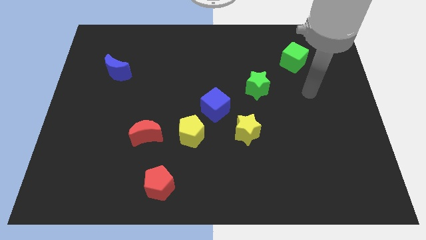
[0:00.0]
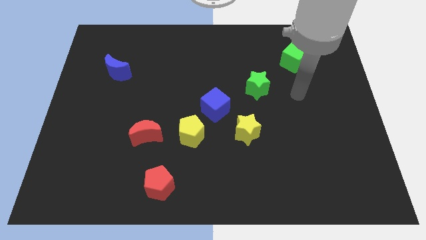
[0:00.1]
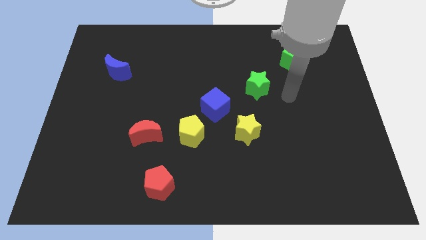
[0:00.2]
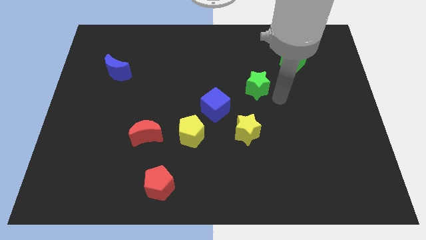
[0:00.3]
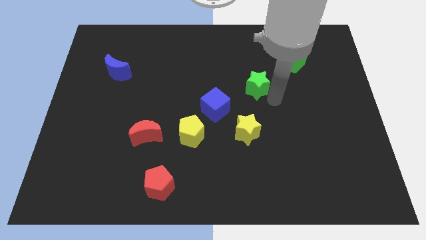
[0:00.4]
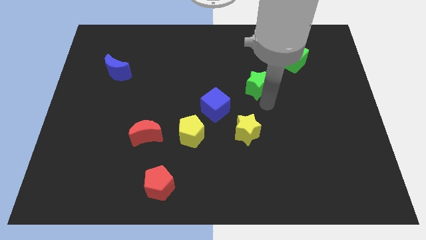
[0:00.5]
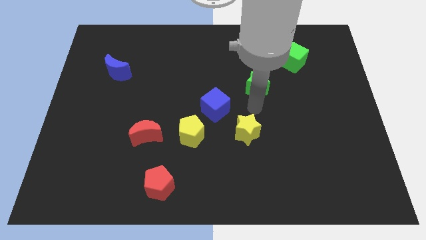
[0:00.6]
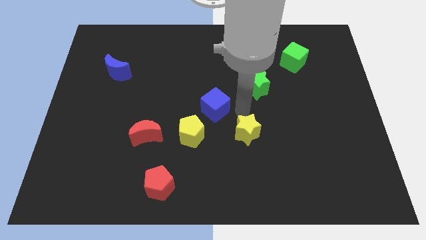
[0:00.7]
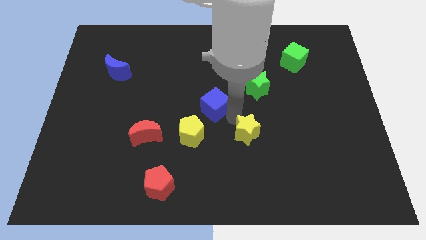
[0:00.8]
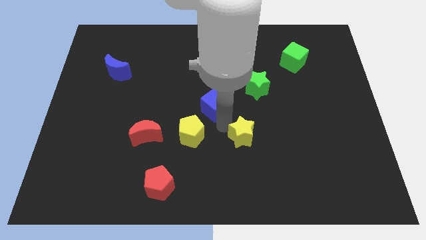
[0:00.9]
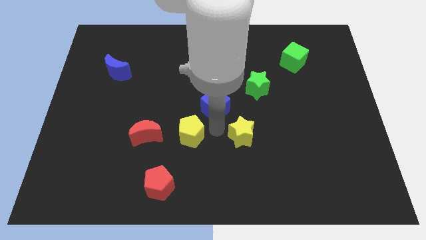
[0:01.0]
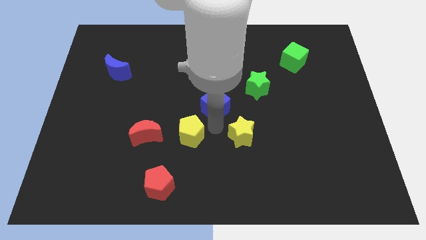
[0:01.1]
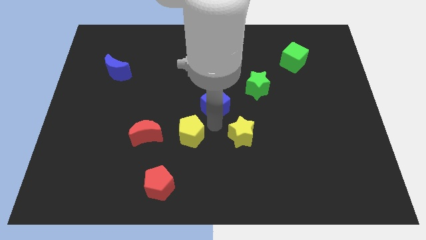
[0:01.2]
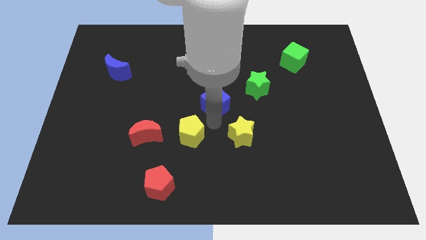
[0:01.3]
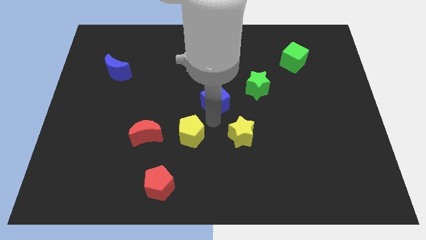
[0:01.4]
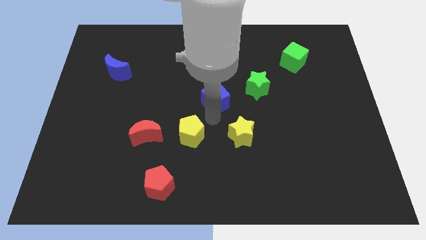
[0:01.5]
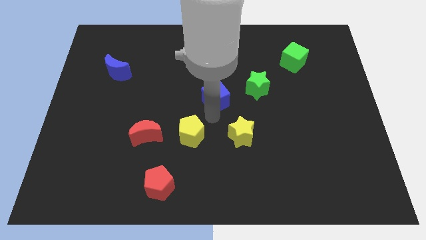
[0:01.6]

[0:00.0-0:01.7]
pull the blue cube apart from the yellow pentagon and yellow star

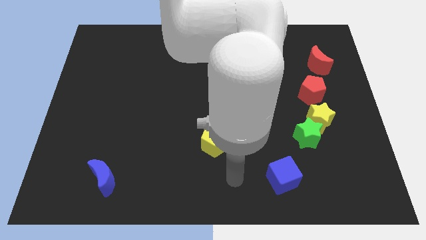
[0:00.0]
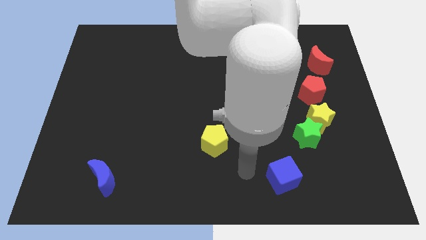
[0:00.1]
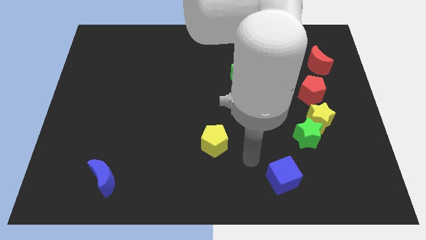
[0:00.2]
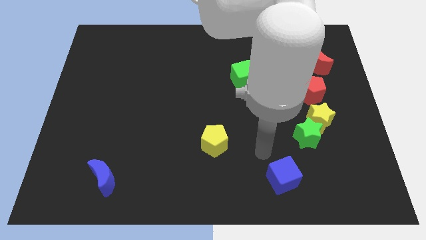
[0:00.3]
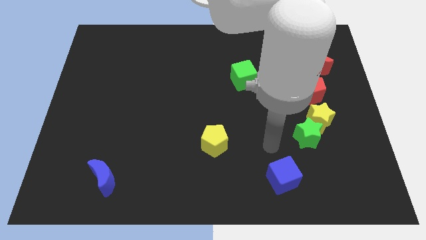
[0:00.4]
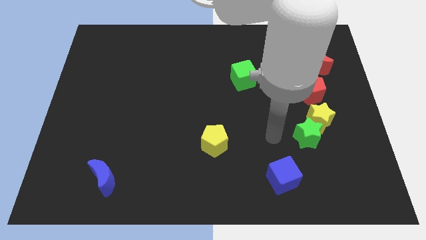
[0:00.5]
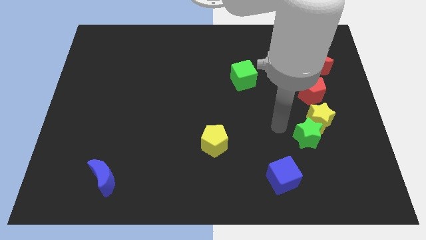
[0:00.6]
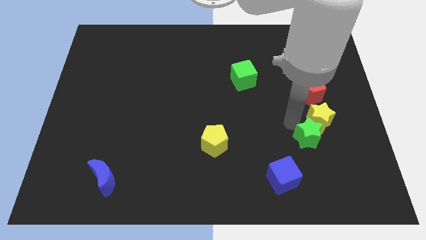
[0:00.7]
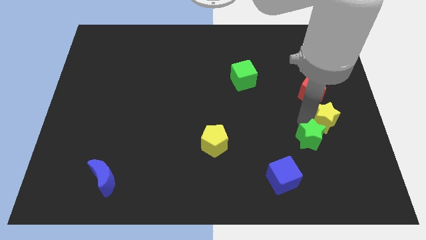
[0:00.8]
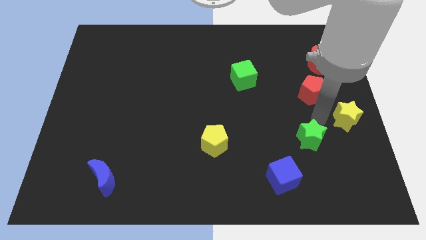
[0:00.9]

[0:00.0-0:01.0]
move the green star away from the yellow star

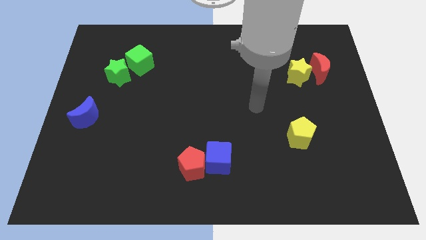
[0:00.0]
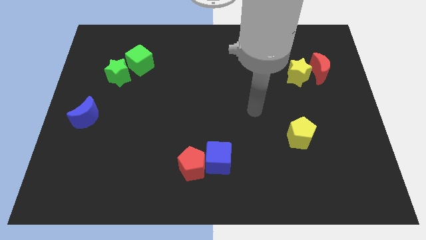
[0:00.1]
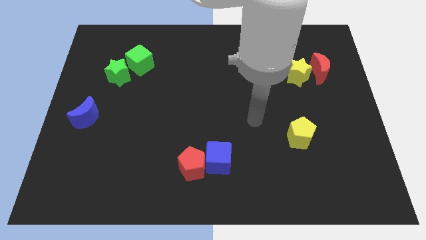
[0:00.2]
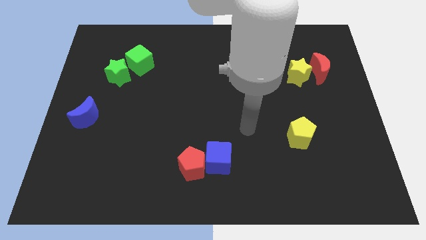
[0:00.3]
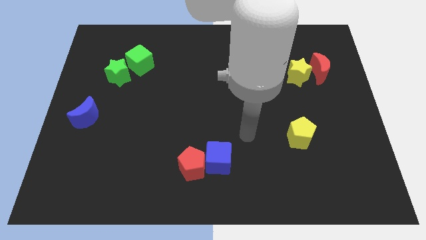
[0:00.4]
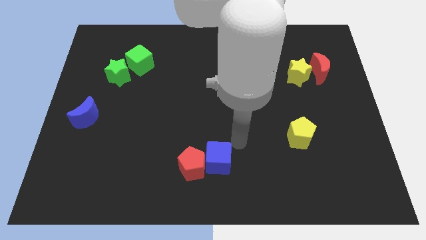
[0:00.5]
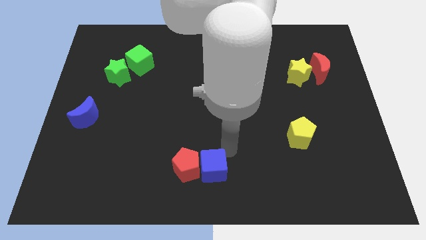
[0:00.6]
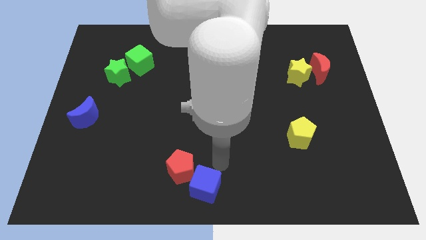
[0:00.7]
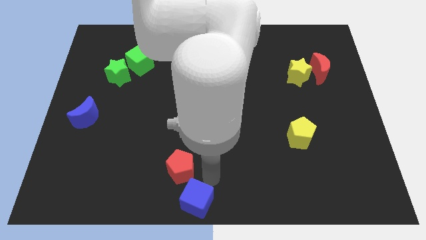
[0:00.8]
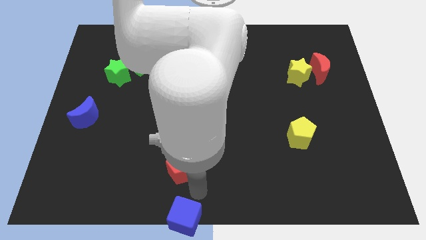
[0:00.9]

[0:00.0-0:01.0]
separate the red pentagon from the blue cube

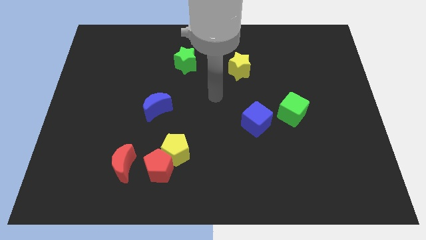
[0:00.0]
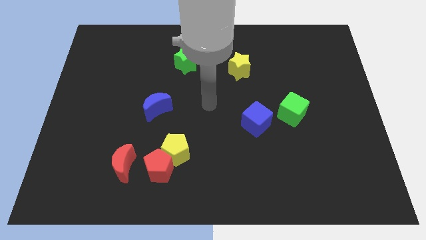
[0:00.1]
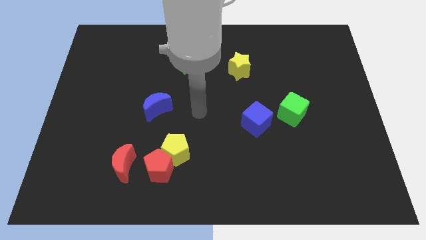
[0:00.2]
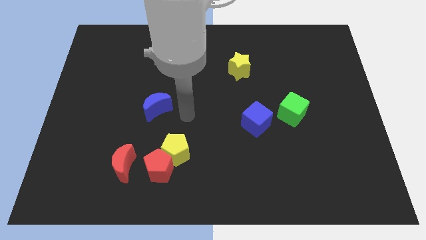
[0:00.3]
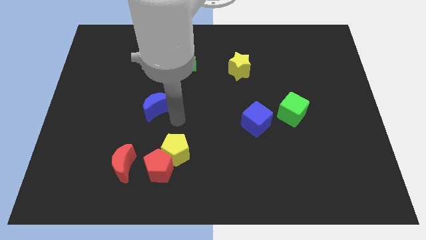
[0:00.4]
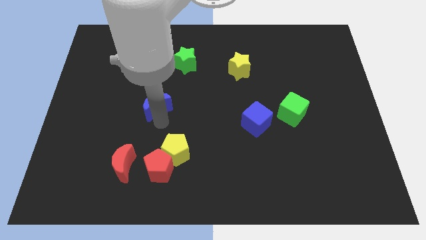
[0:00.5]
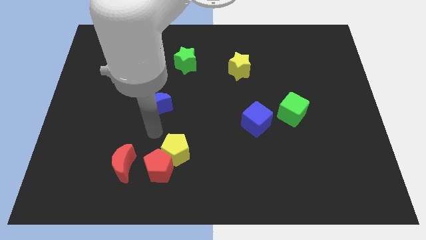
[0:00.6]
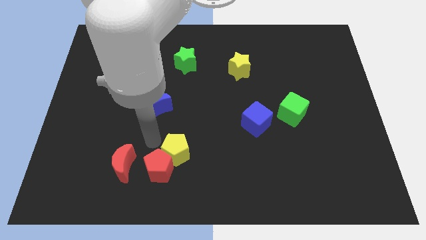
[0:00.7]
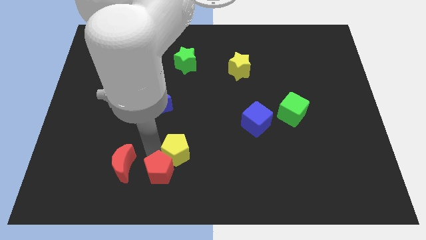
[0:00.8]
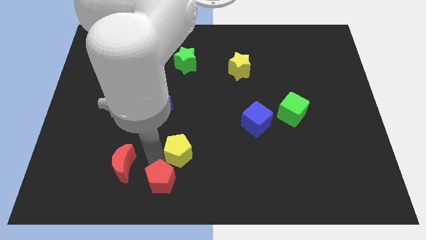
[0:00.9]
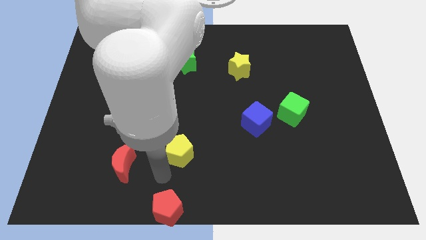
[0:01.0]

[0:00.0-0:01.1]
move the yellow pentagon away from the red pentagon

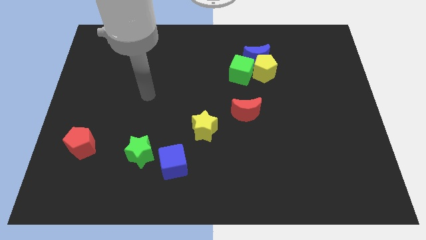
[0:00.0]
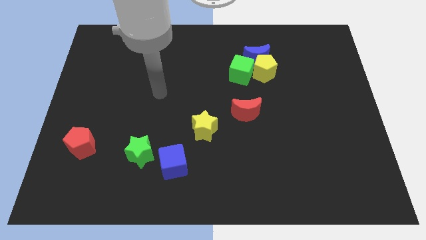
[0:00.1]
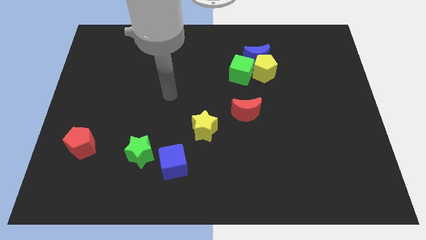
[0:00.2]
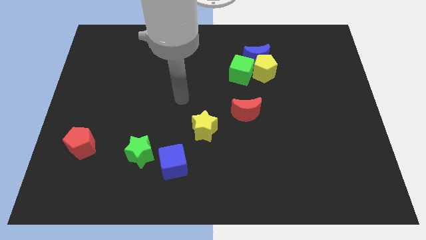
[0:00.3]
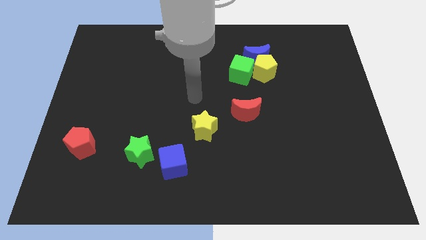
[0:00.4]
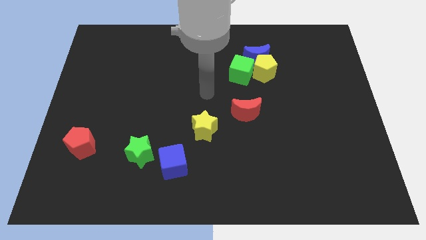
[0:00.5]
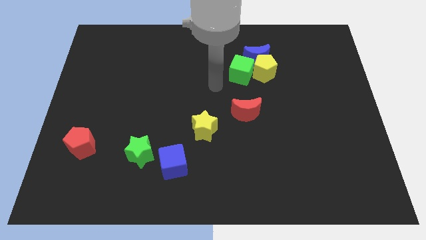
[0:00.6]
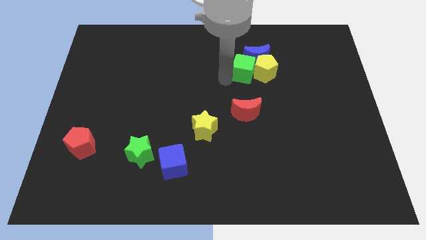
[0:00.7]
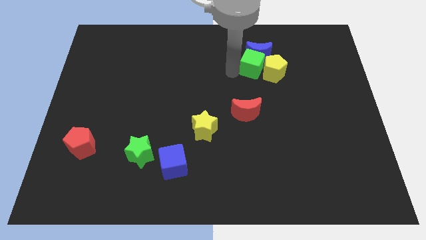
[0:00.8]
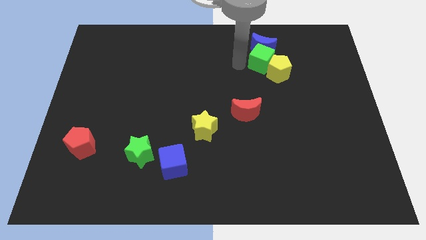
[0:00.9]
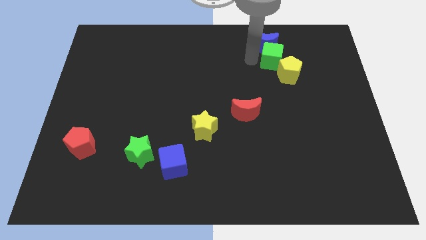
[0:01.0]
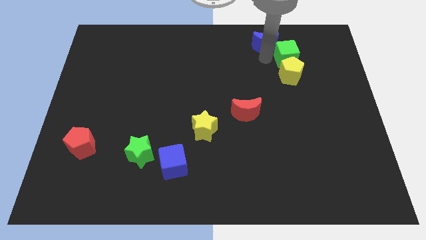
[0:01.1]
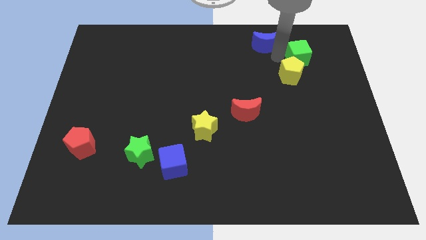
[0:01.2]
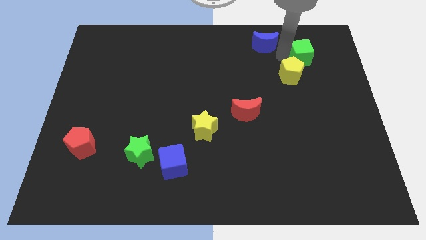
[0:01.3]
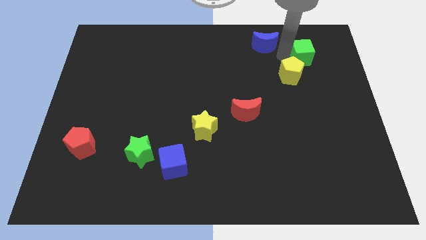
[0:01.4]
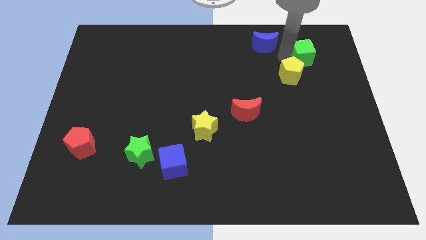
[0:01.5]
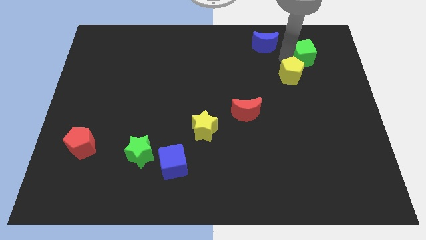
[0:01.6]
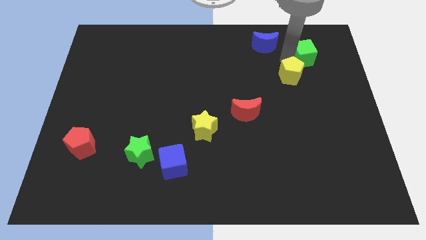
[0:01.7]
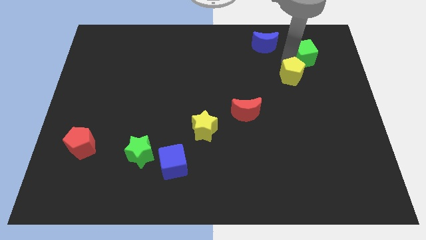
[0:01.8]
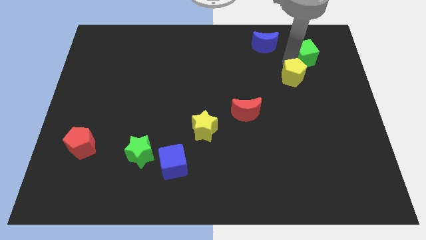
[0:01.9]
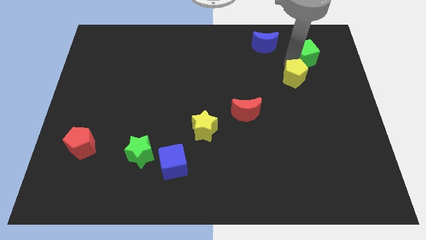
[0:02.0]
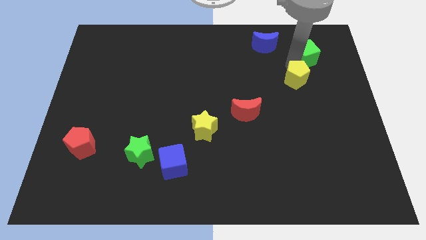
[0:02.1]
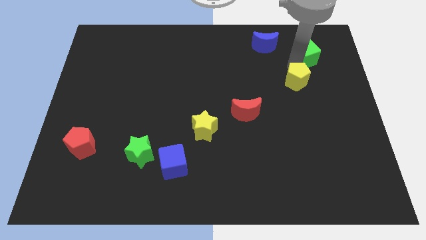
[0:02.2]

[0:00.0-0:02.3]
separate the yellow pentagon from the blue moon and green cube

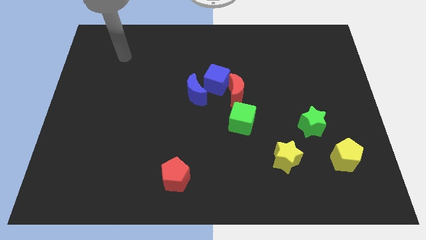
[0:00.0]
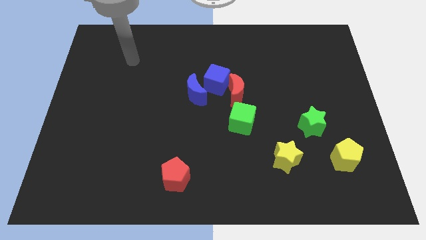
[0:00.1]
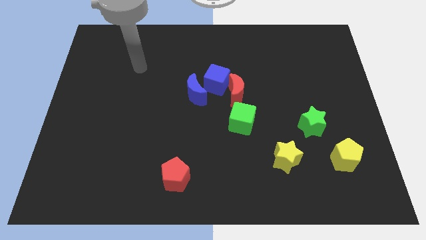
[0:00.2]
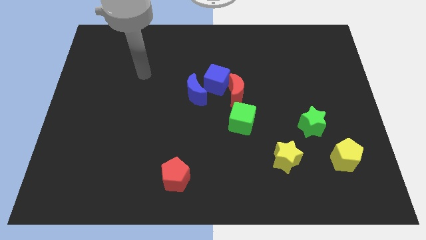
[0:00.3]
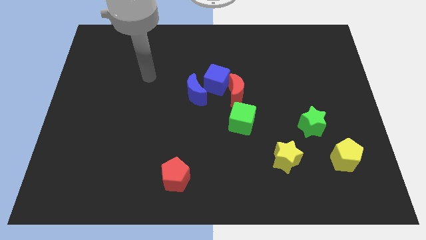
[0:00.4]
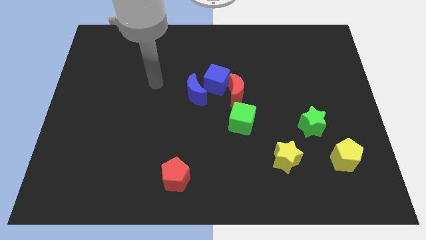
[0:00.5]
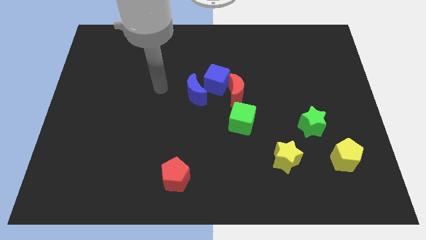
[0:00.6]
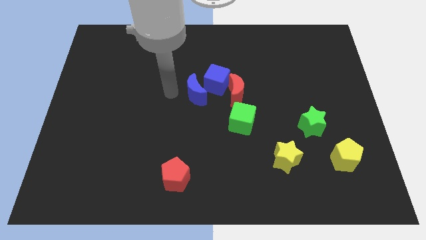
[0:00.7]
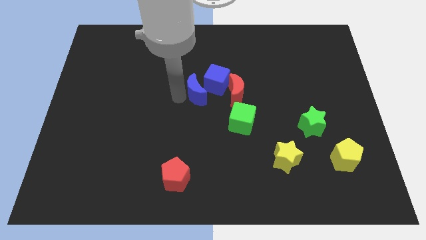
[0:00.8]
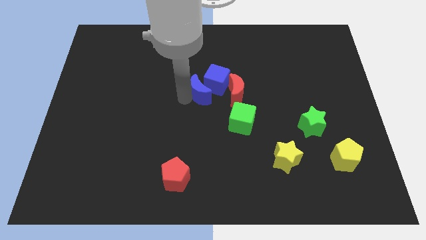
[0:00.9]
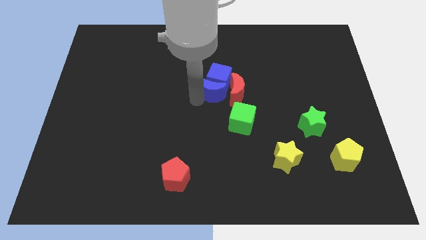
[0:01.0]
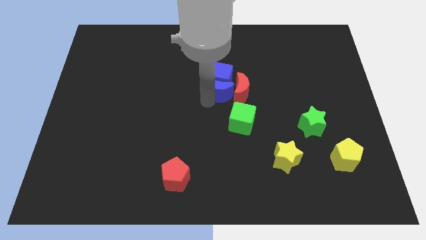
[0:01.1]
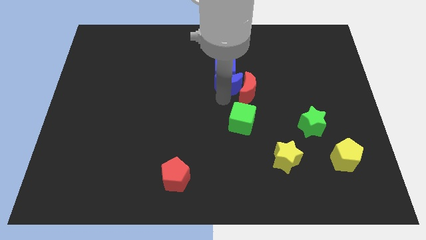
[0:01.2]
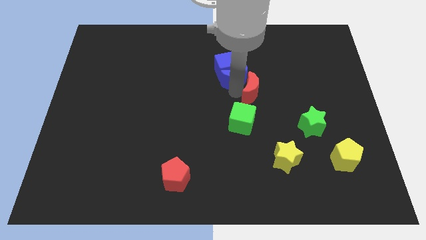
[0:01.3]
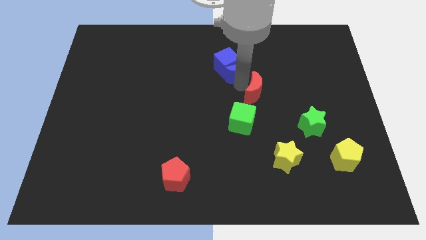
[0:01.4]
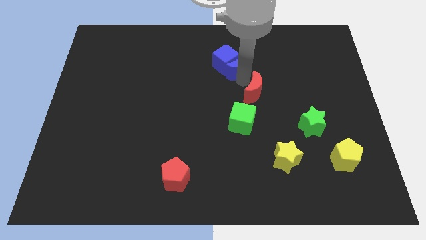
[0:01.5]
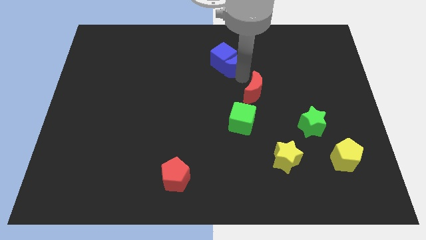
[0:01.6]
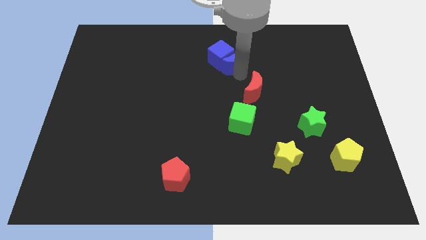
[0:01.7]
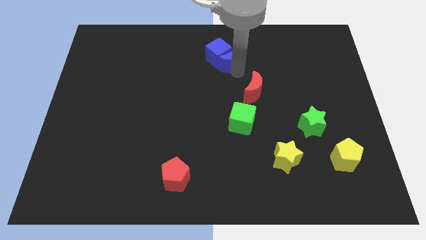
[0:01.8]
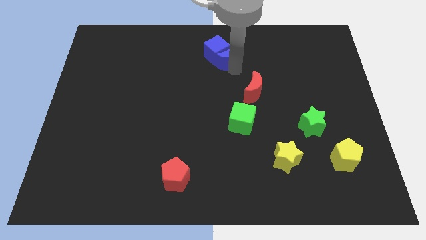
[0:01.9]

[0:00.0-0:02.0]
pull the blue cube apart from the red moon and blue moon

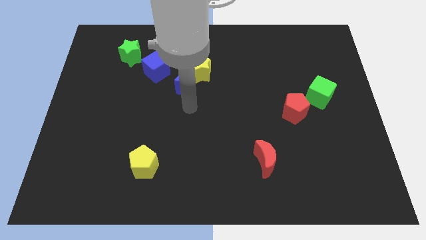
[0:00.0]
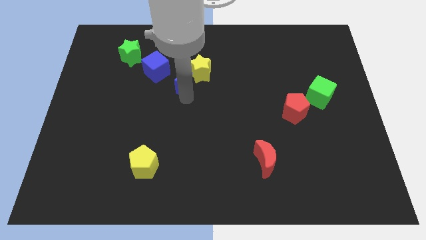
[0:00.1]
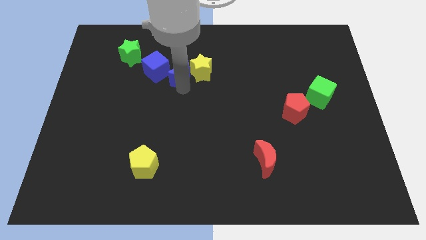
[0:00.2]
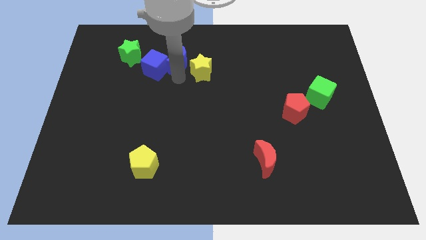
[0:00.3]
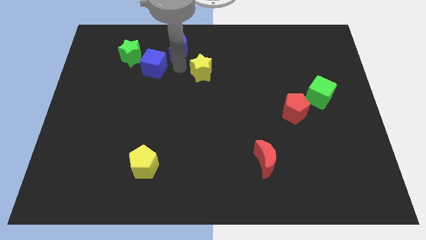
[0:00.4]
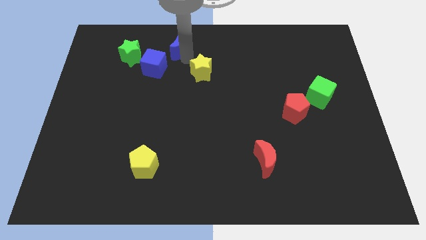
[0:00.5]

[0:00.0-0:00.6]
move the yellow star away from the blue moon
